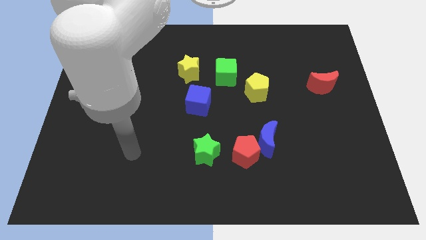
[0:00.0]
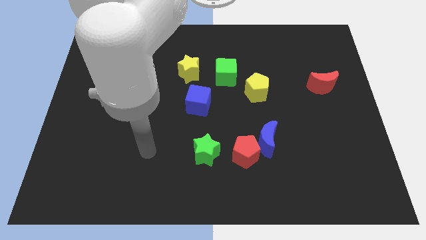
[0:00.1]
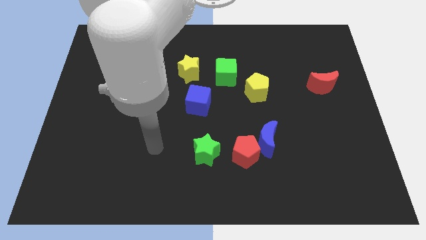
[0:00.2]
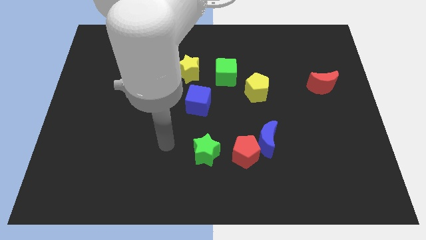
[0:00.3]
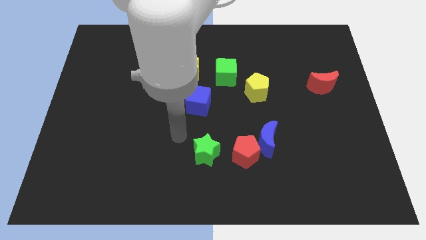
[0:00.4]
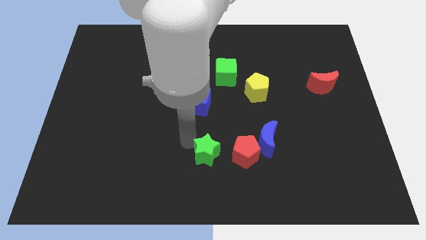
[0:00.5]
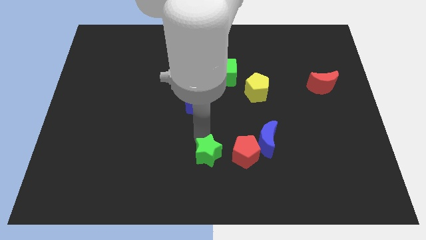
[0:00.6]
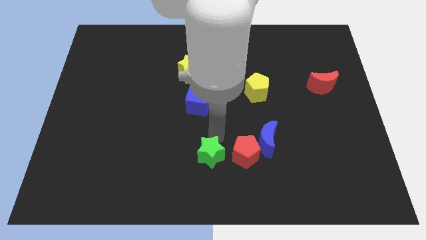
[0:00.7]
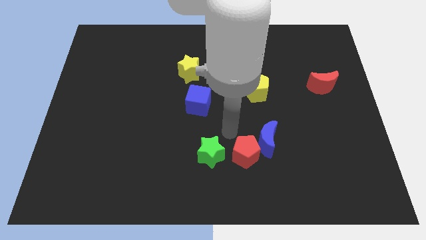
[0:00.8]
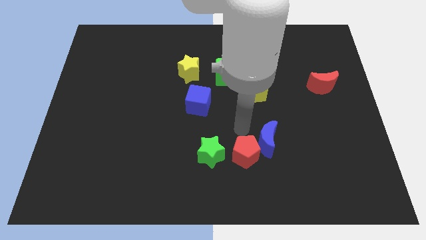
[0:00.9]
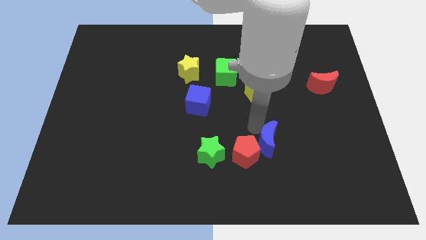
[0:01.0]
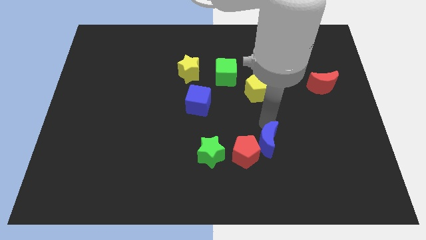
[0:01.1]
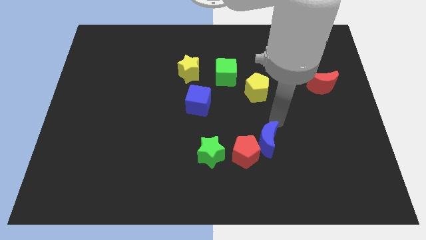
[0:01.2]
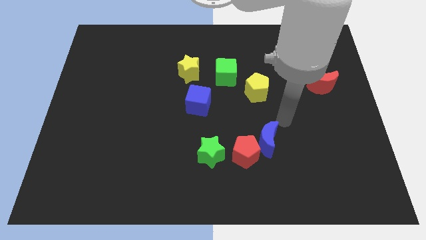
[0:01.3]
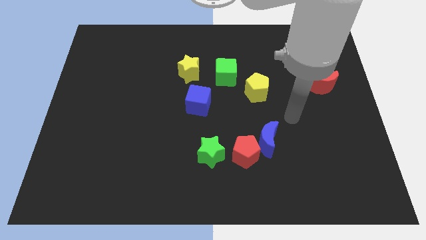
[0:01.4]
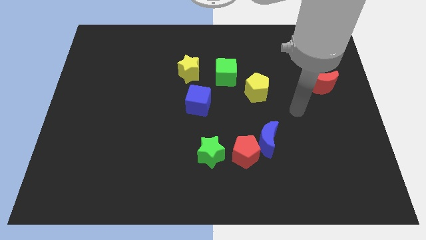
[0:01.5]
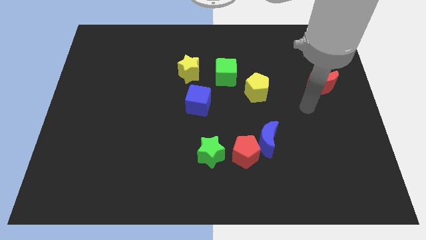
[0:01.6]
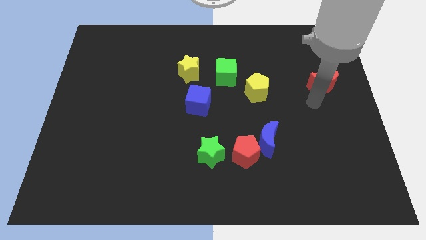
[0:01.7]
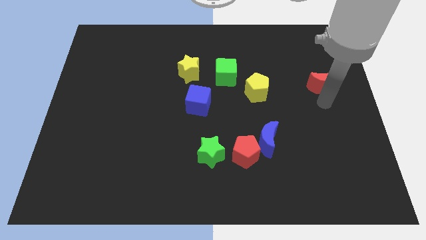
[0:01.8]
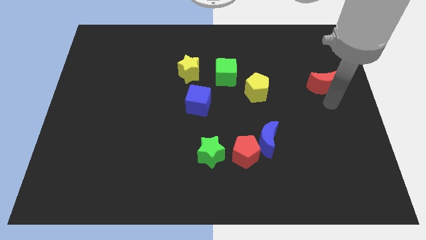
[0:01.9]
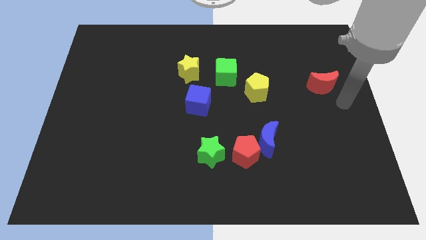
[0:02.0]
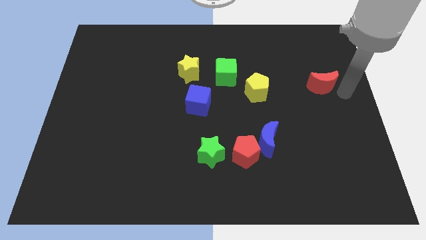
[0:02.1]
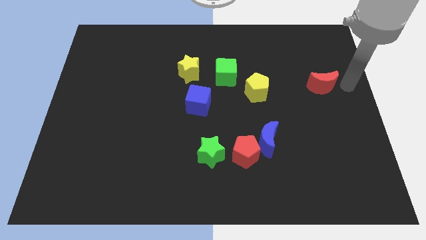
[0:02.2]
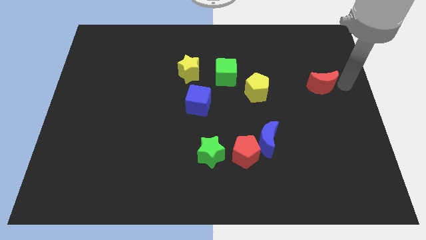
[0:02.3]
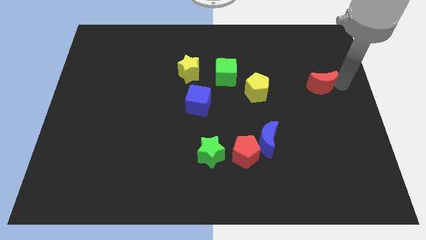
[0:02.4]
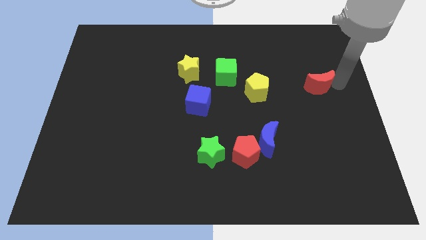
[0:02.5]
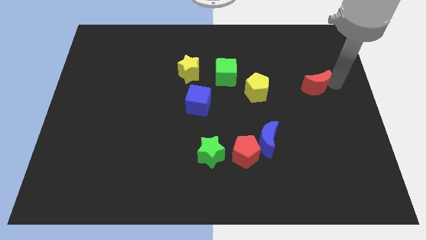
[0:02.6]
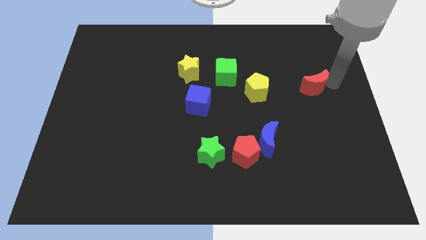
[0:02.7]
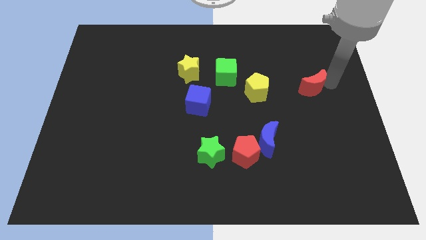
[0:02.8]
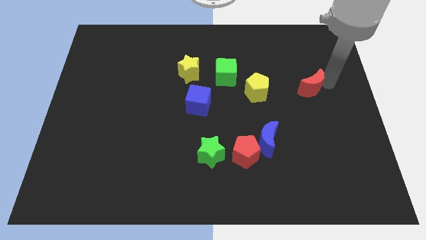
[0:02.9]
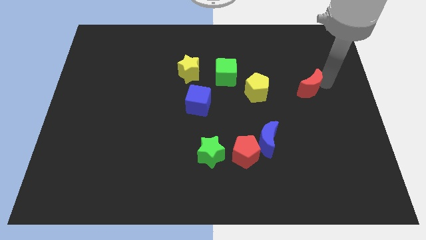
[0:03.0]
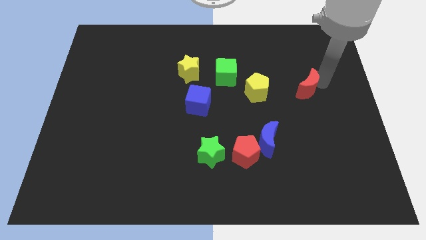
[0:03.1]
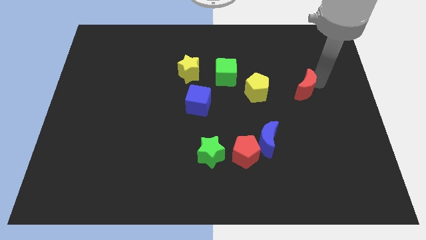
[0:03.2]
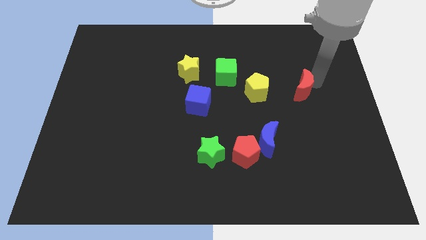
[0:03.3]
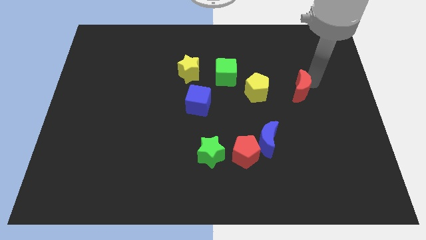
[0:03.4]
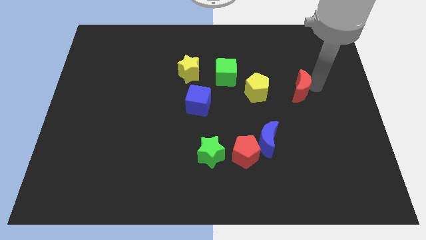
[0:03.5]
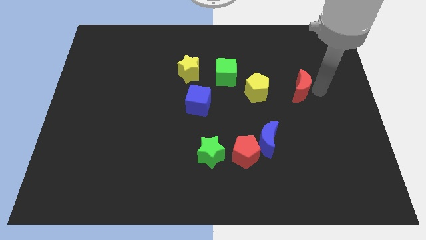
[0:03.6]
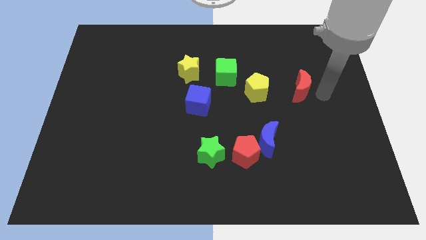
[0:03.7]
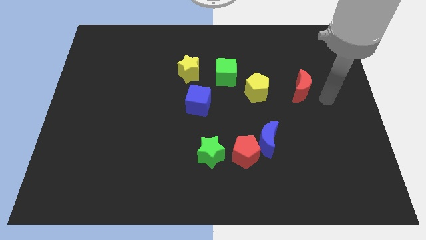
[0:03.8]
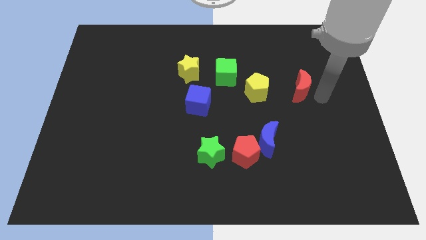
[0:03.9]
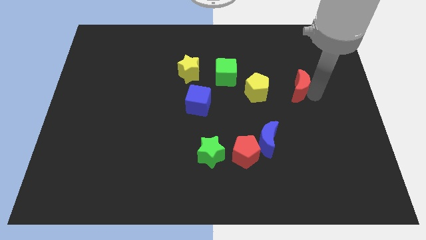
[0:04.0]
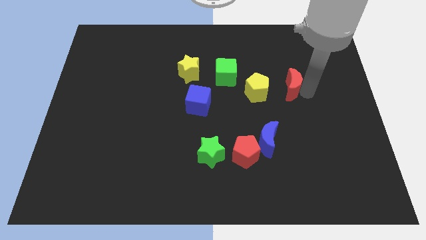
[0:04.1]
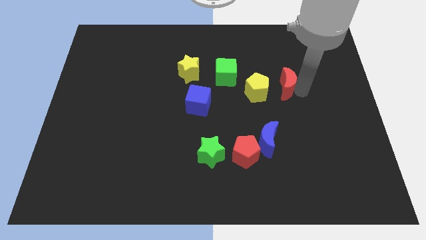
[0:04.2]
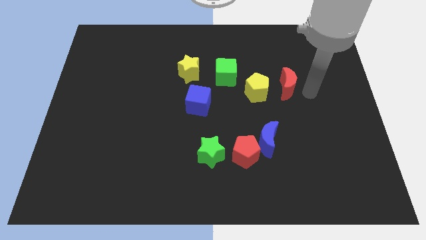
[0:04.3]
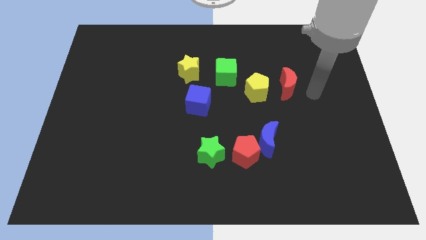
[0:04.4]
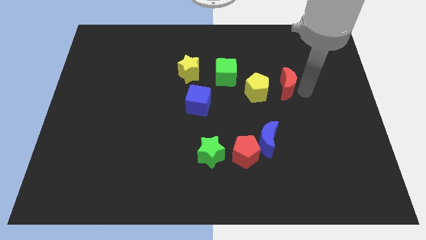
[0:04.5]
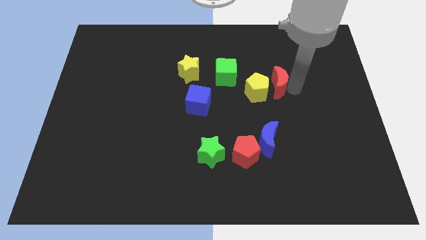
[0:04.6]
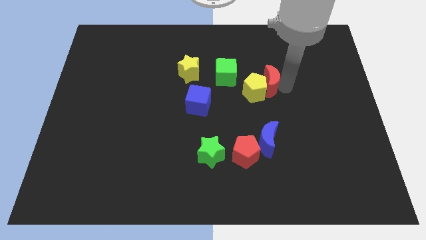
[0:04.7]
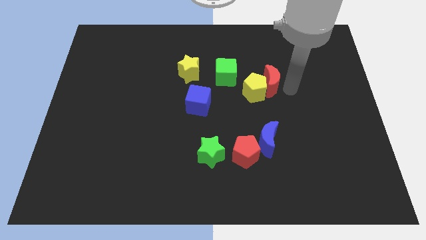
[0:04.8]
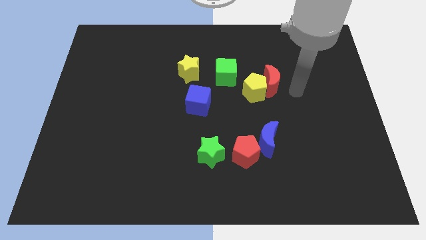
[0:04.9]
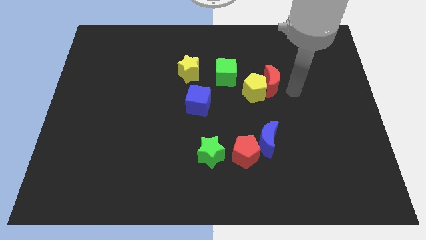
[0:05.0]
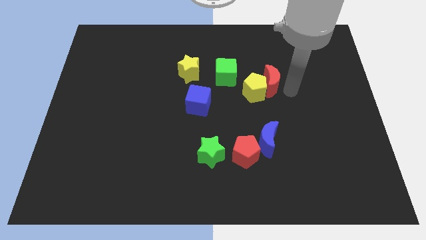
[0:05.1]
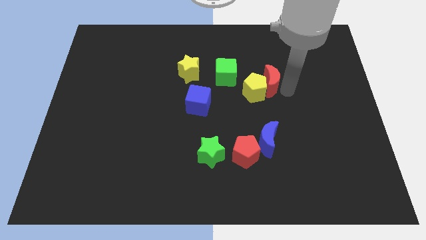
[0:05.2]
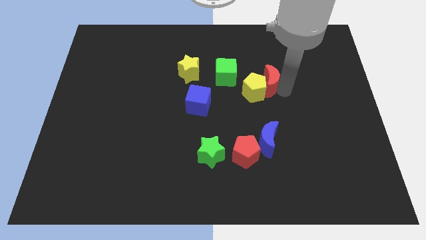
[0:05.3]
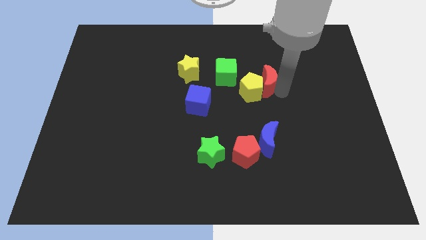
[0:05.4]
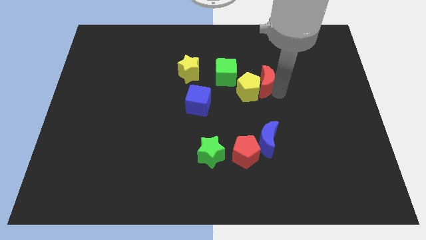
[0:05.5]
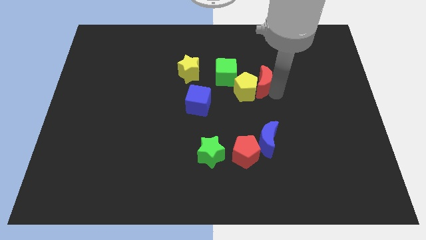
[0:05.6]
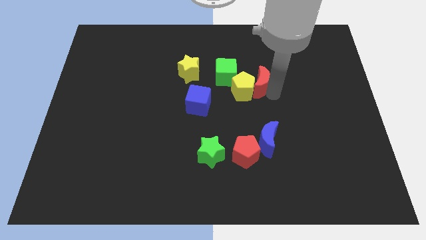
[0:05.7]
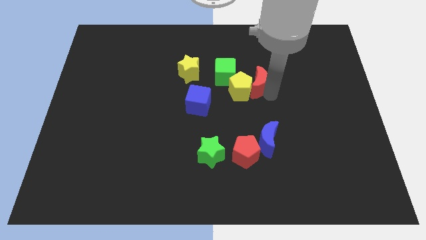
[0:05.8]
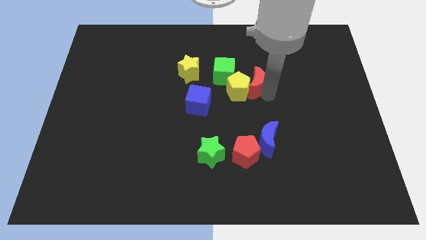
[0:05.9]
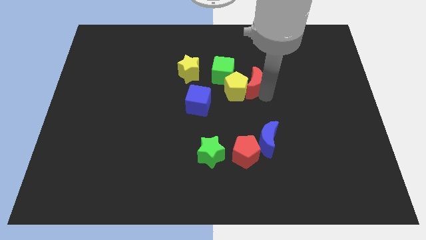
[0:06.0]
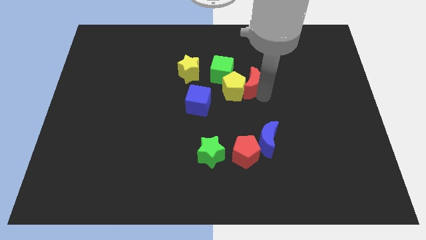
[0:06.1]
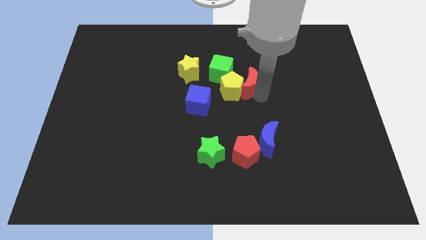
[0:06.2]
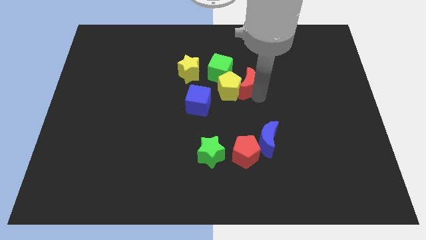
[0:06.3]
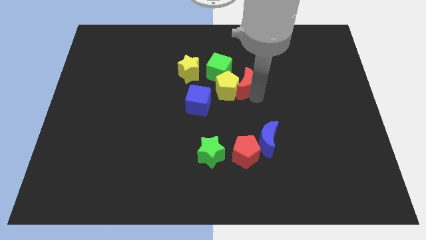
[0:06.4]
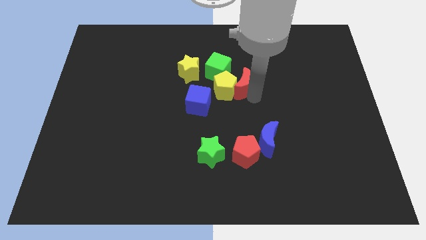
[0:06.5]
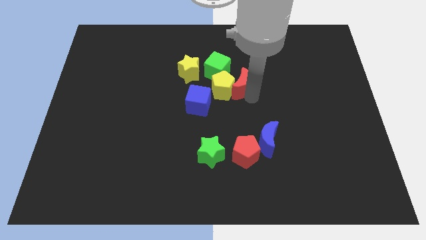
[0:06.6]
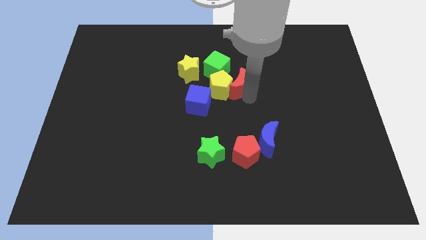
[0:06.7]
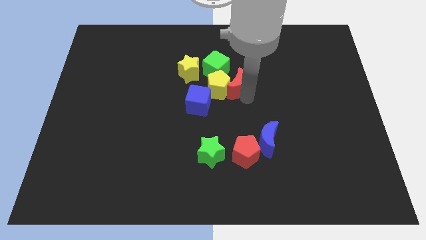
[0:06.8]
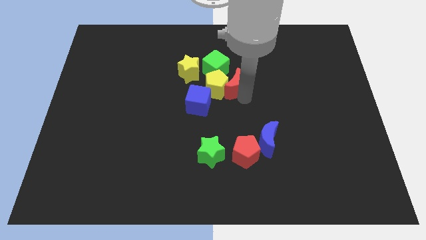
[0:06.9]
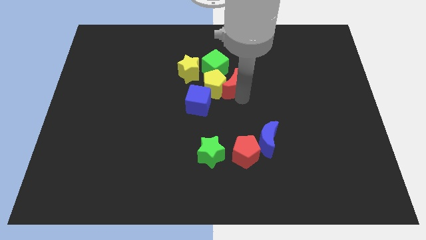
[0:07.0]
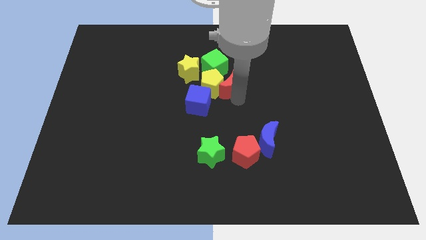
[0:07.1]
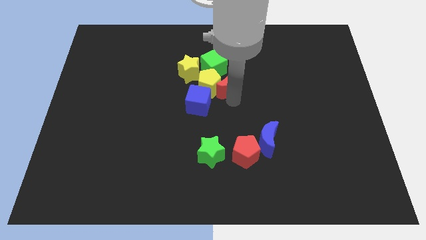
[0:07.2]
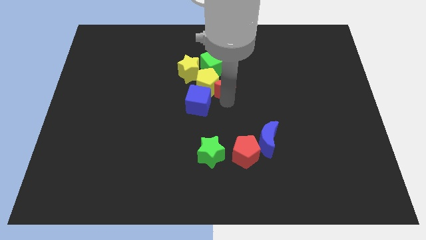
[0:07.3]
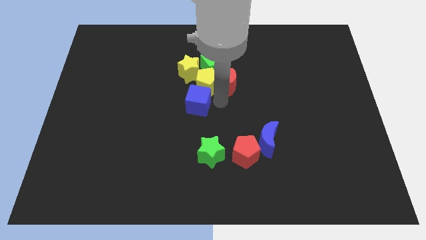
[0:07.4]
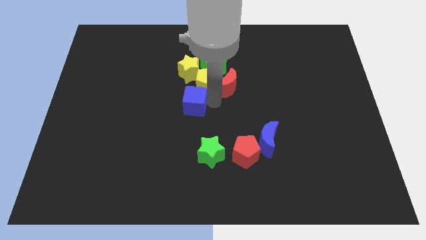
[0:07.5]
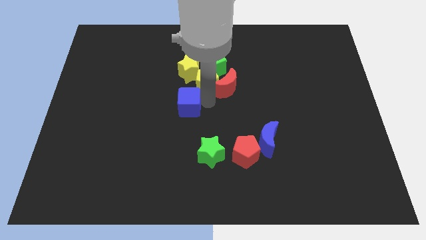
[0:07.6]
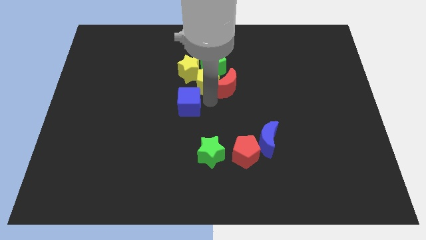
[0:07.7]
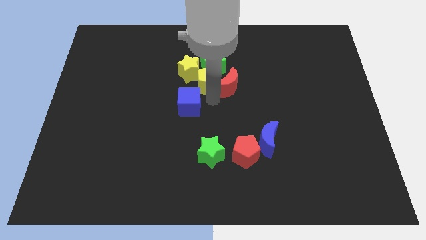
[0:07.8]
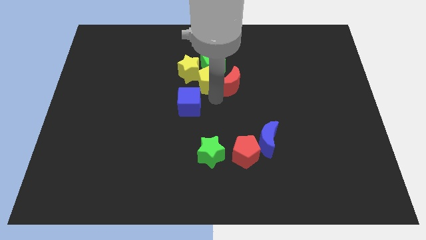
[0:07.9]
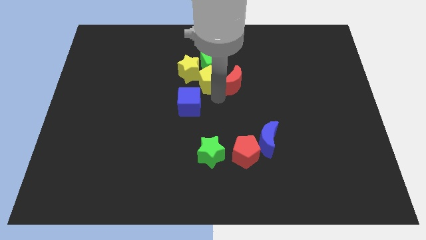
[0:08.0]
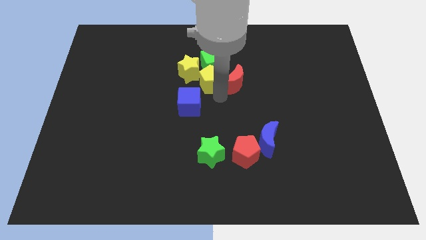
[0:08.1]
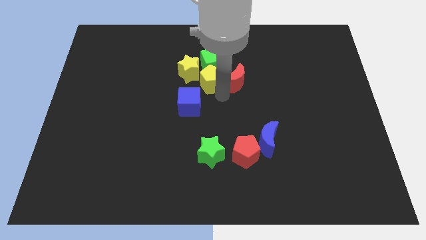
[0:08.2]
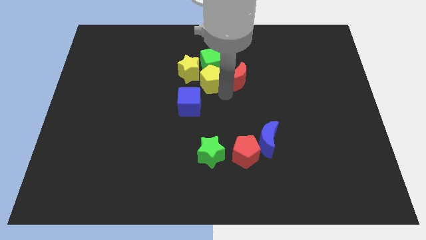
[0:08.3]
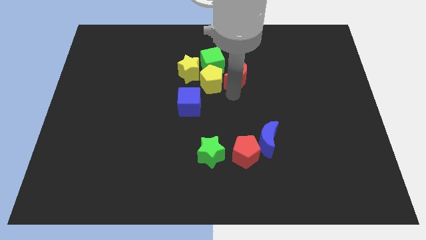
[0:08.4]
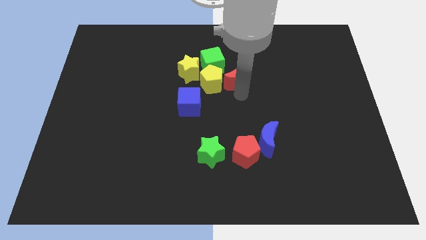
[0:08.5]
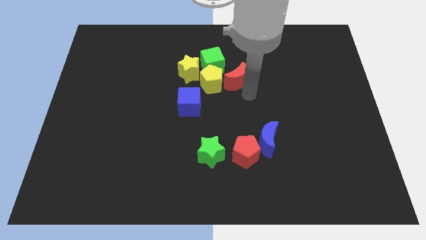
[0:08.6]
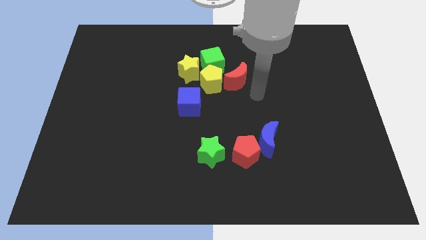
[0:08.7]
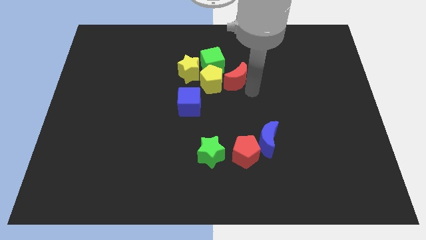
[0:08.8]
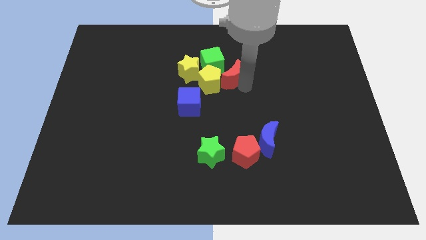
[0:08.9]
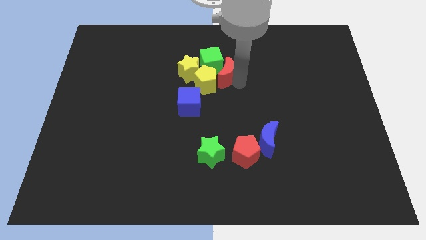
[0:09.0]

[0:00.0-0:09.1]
move the red moon close to the green cube
